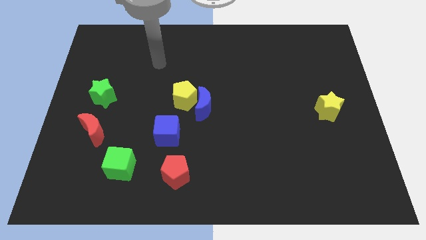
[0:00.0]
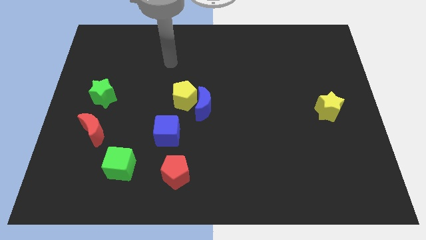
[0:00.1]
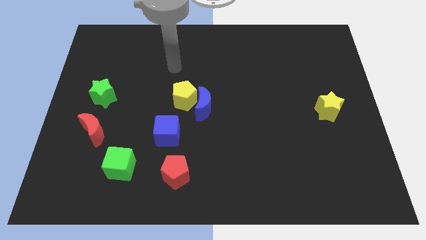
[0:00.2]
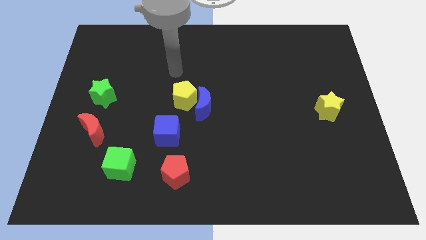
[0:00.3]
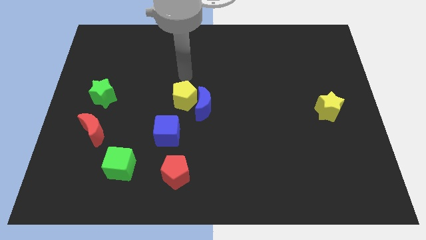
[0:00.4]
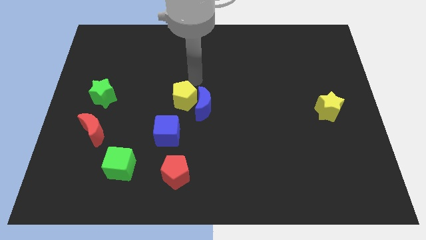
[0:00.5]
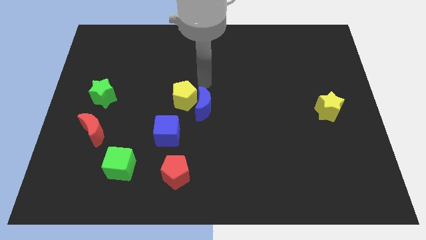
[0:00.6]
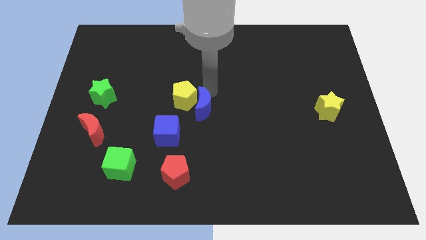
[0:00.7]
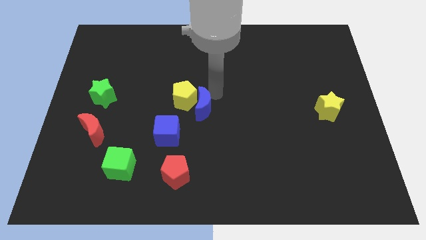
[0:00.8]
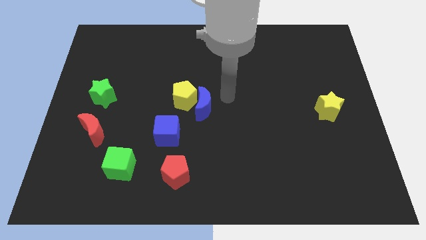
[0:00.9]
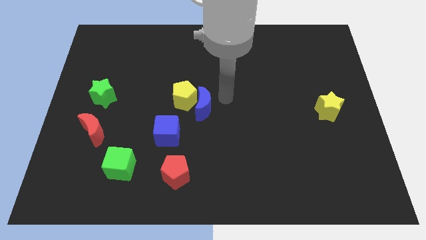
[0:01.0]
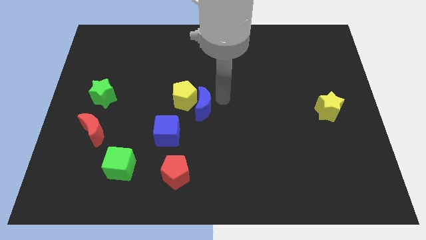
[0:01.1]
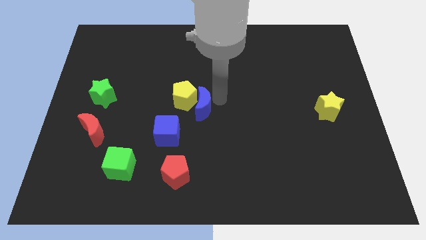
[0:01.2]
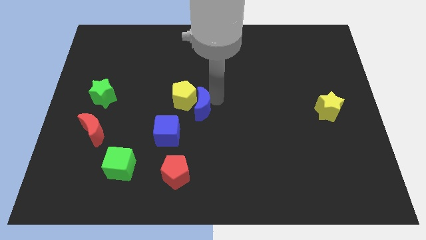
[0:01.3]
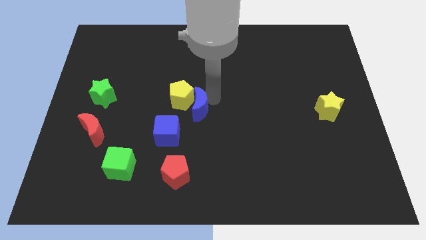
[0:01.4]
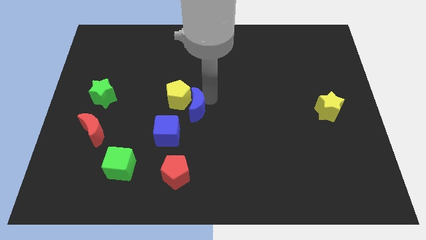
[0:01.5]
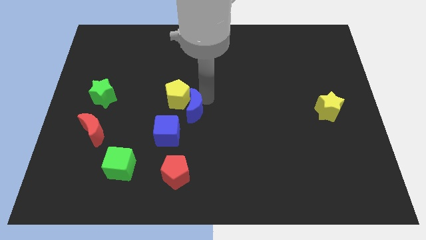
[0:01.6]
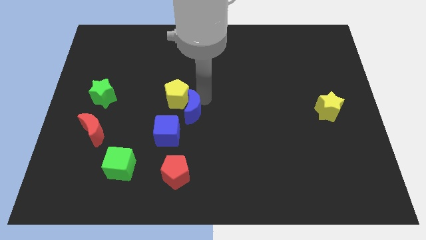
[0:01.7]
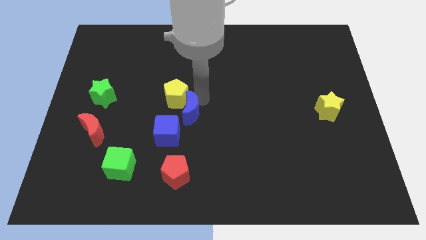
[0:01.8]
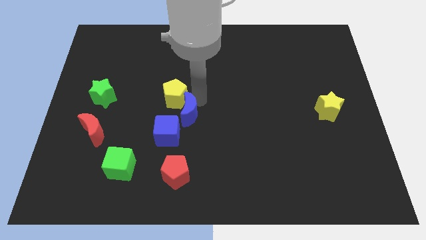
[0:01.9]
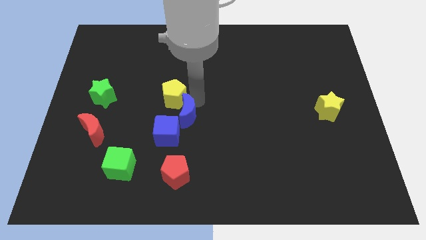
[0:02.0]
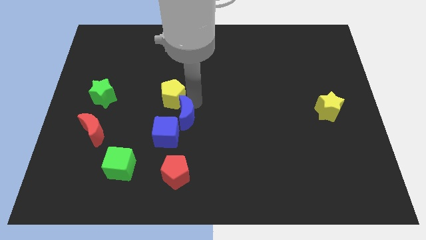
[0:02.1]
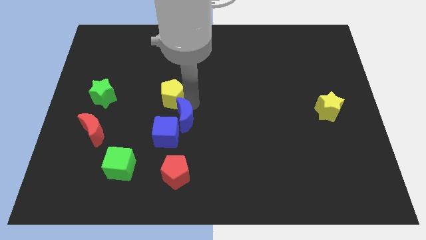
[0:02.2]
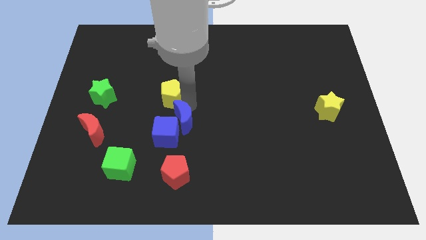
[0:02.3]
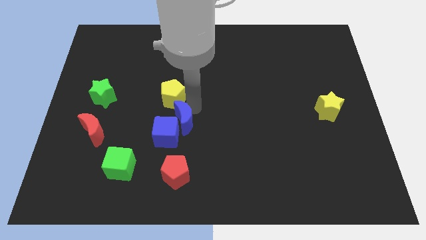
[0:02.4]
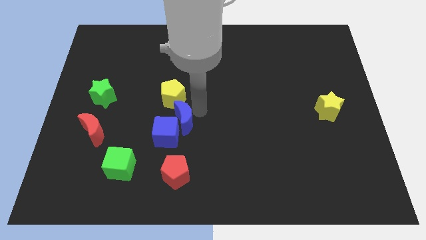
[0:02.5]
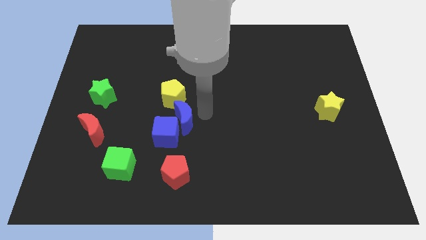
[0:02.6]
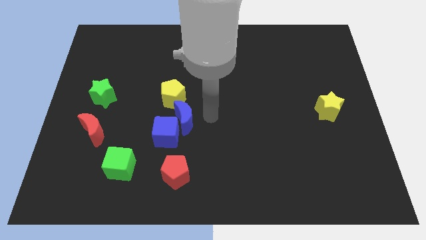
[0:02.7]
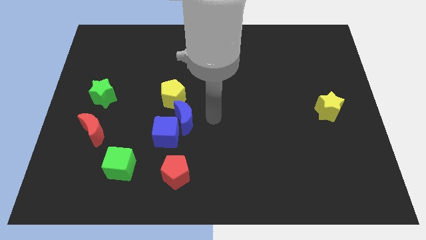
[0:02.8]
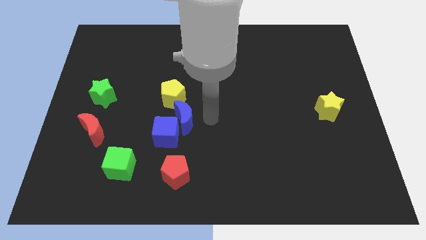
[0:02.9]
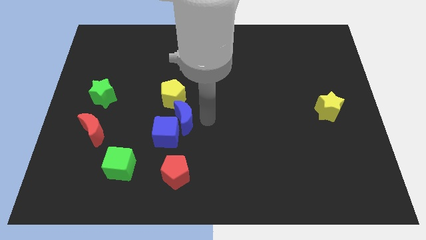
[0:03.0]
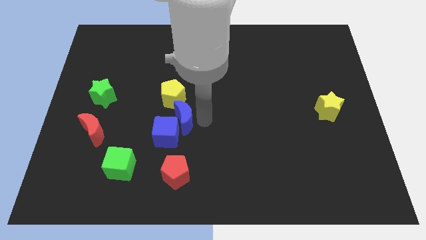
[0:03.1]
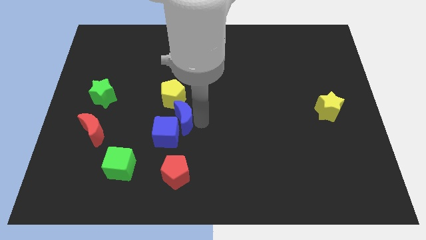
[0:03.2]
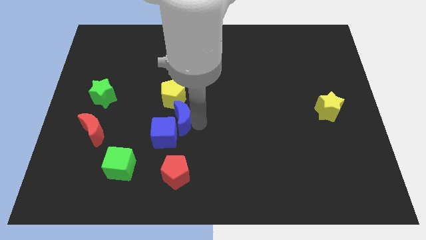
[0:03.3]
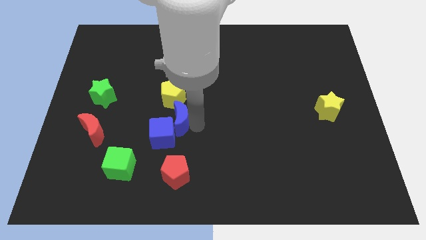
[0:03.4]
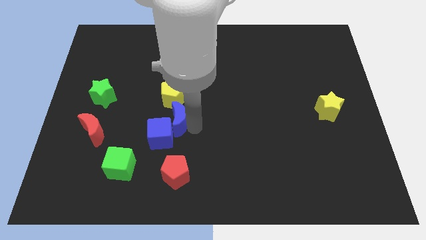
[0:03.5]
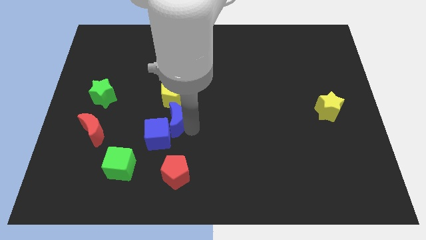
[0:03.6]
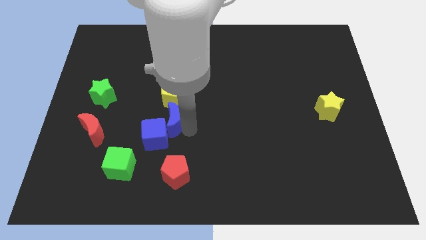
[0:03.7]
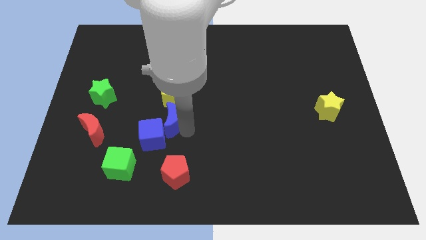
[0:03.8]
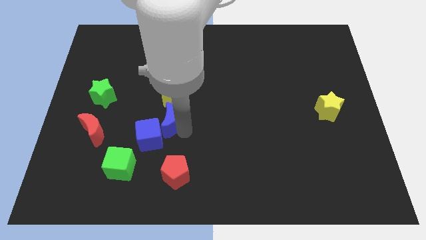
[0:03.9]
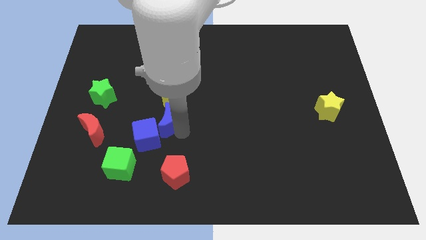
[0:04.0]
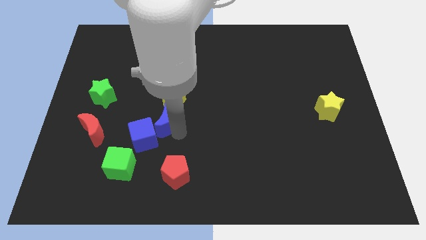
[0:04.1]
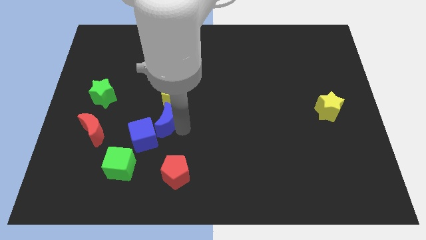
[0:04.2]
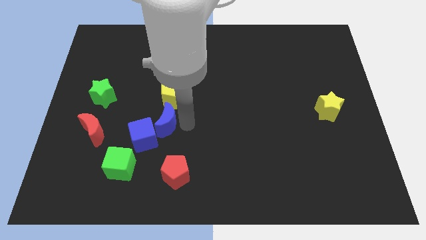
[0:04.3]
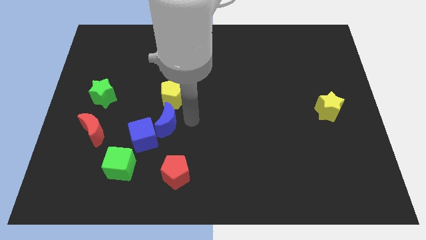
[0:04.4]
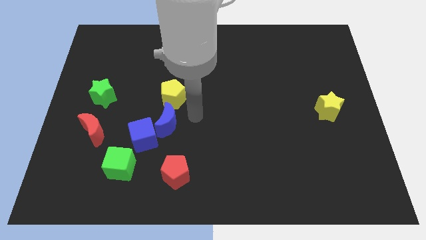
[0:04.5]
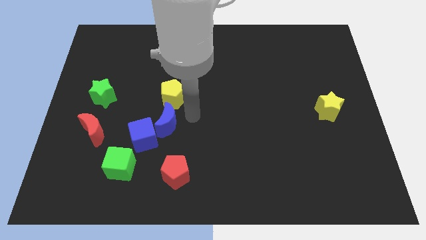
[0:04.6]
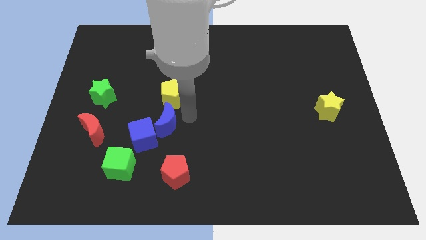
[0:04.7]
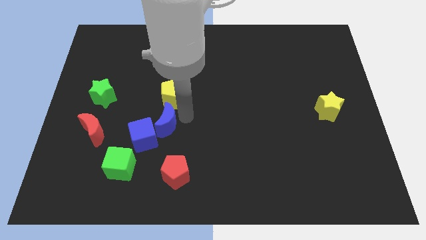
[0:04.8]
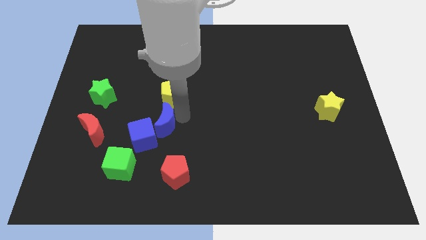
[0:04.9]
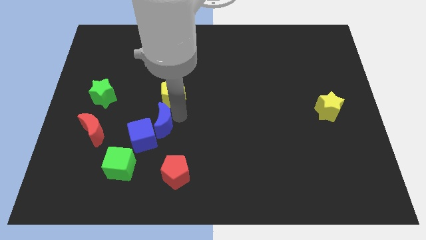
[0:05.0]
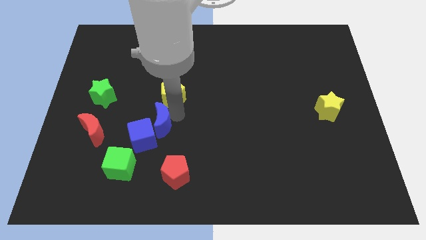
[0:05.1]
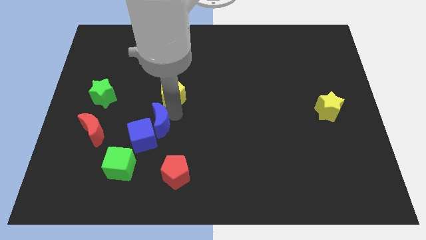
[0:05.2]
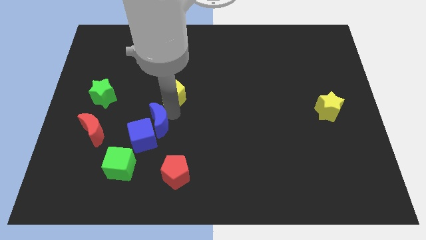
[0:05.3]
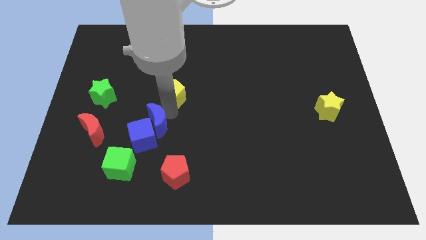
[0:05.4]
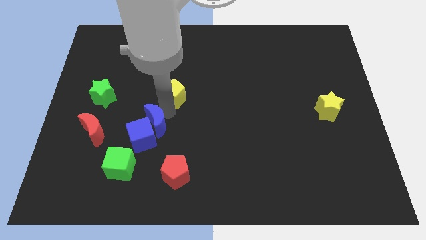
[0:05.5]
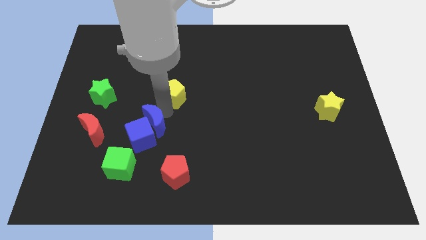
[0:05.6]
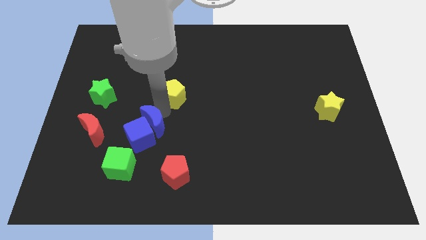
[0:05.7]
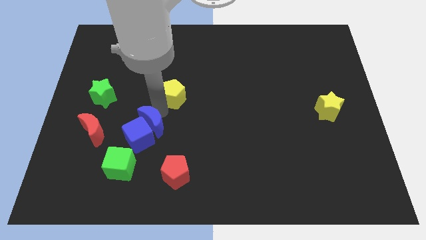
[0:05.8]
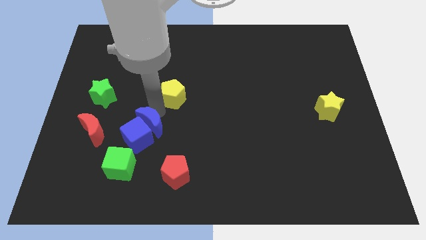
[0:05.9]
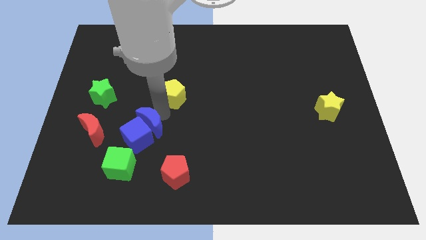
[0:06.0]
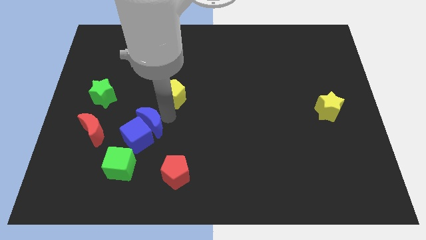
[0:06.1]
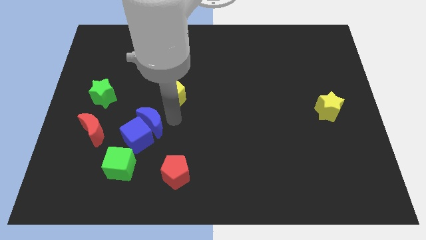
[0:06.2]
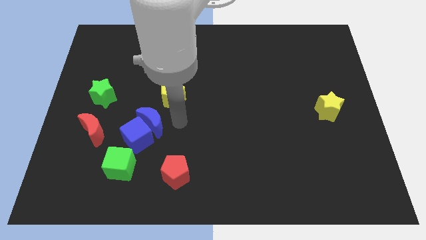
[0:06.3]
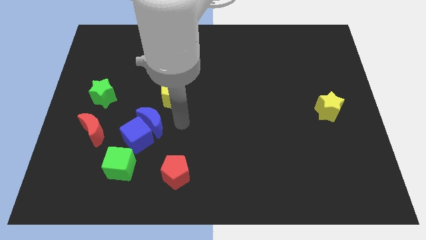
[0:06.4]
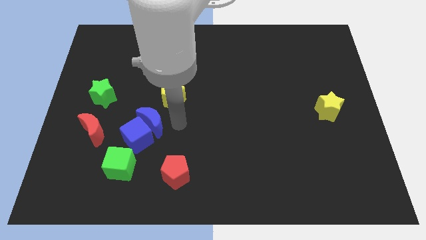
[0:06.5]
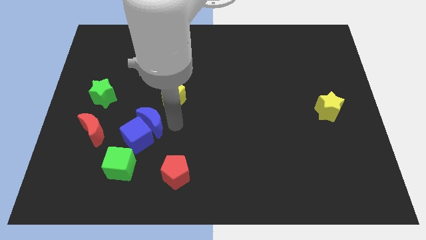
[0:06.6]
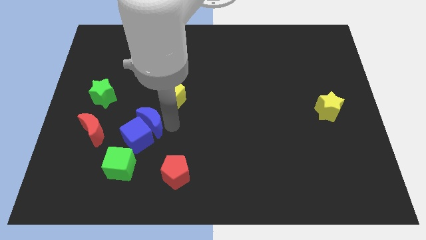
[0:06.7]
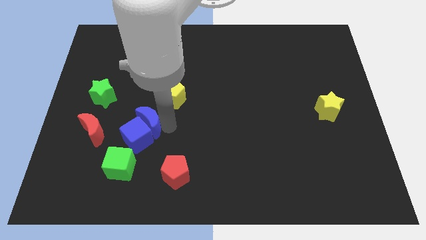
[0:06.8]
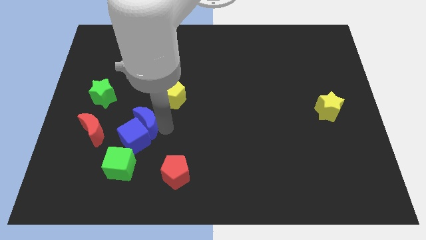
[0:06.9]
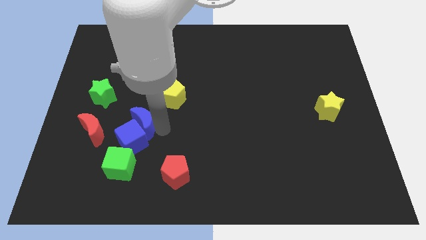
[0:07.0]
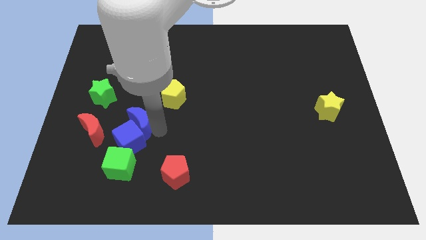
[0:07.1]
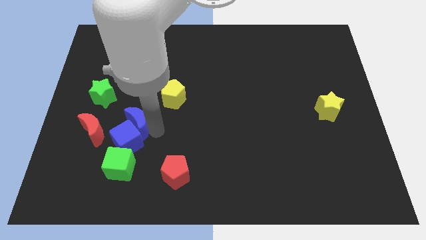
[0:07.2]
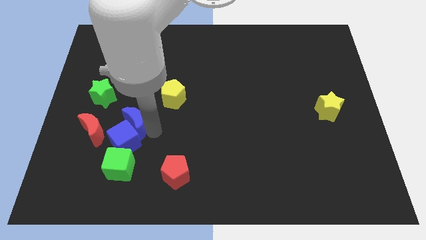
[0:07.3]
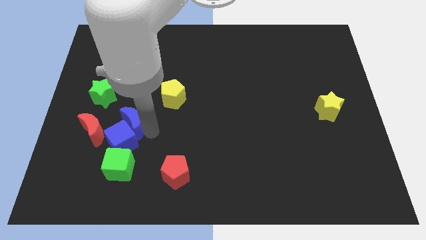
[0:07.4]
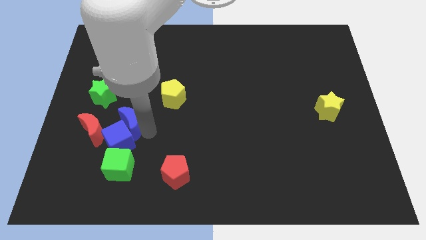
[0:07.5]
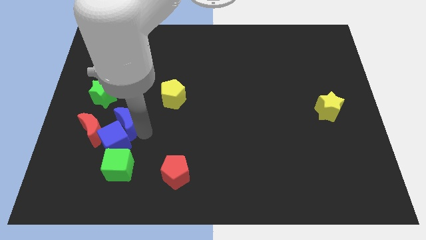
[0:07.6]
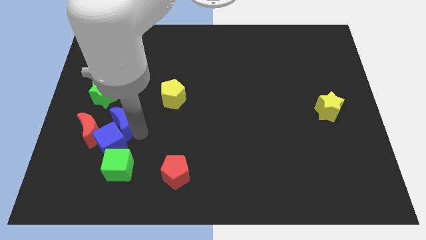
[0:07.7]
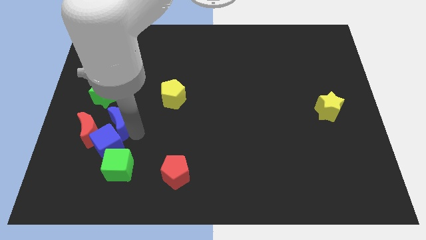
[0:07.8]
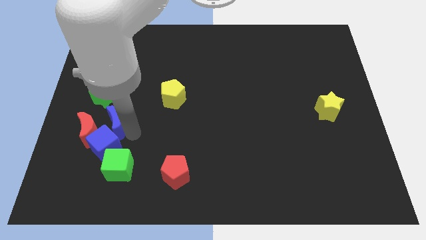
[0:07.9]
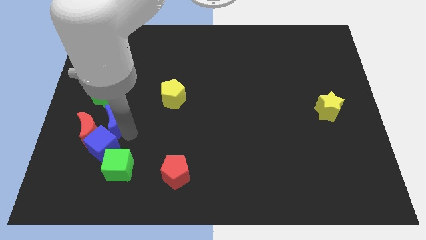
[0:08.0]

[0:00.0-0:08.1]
move the blue moon next to the red moon
